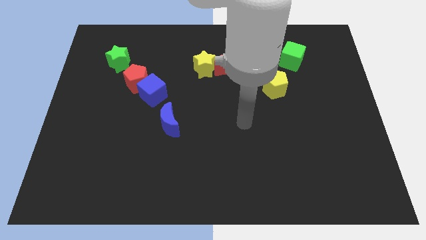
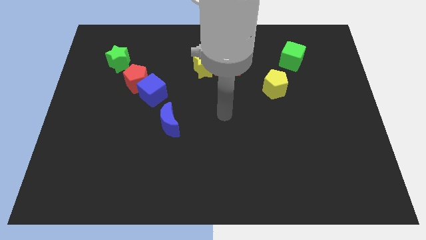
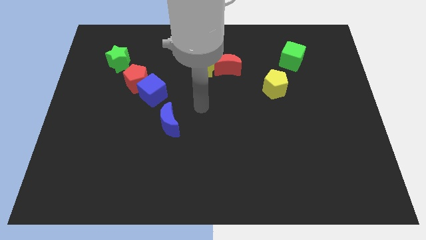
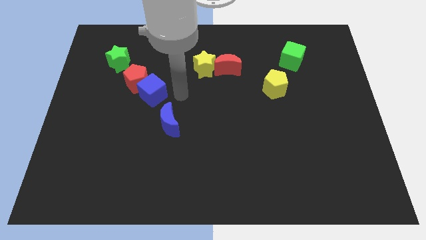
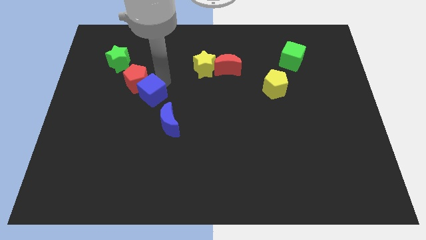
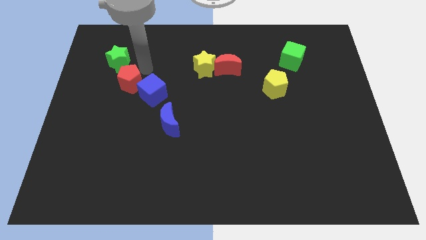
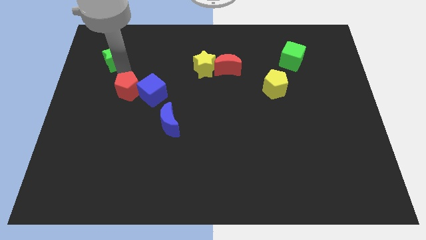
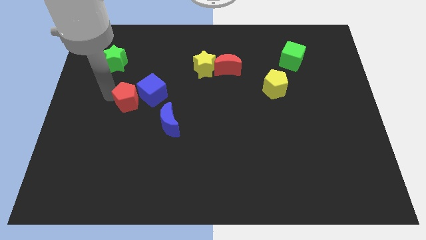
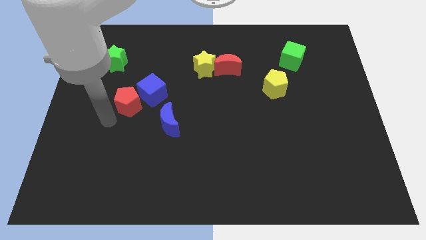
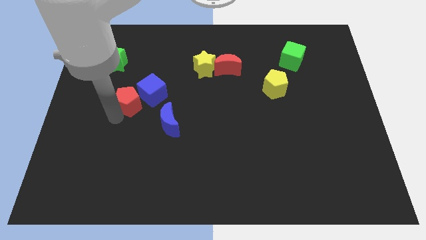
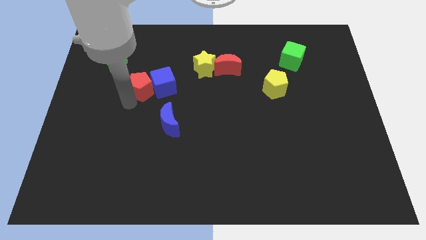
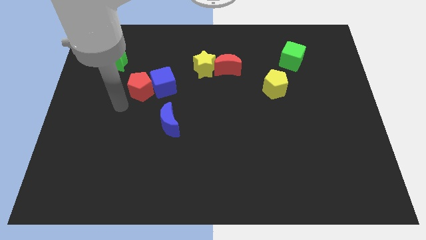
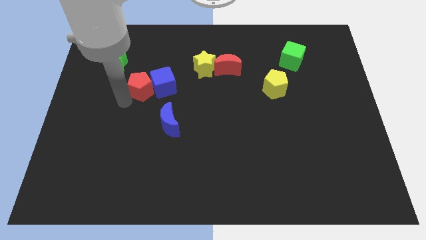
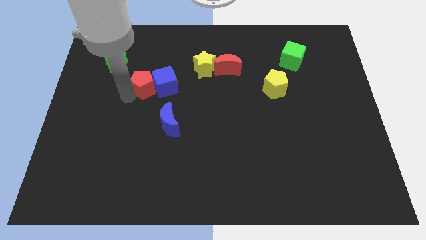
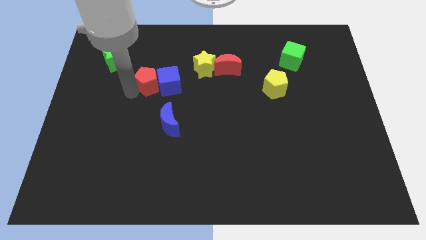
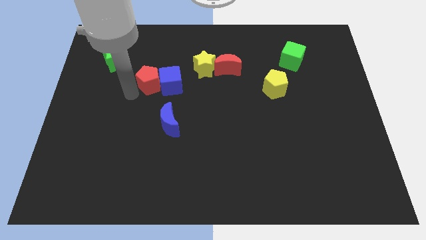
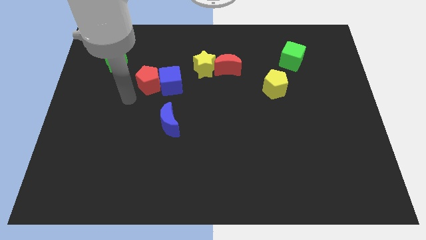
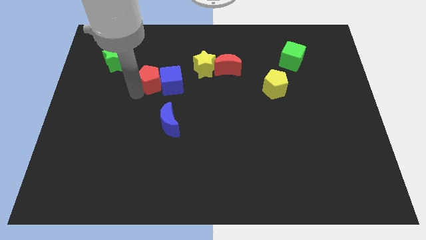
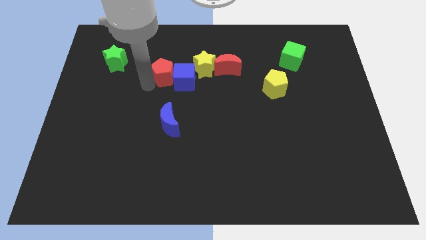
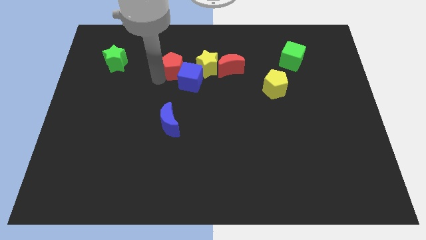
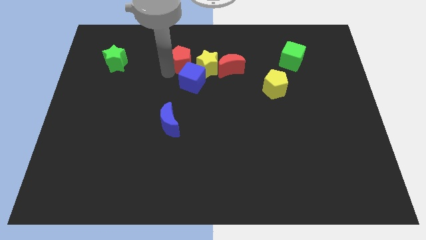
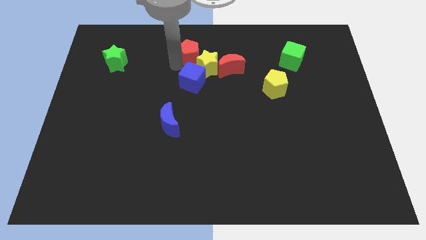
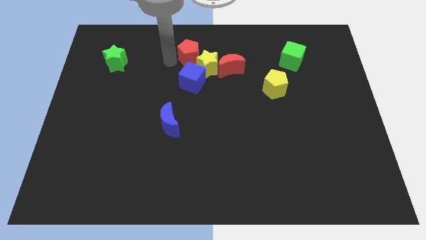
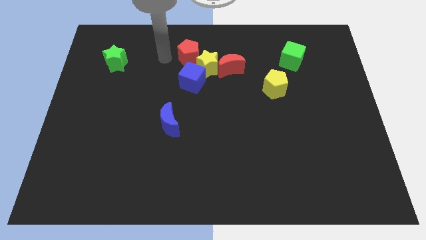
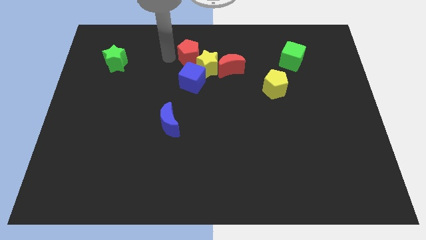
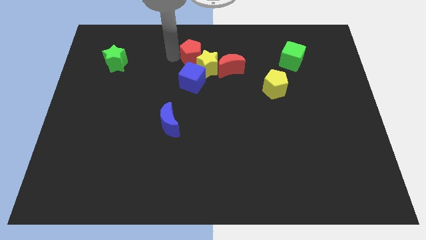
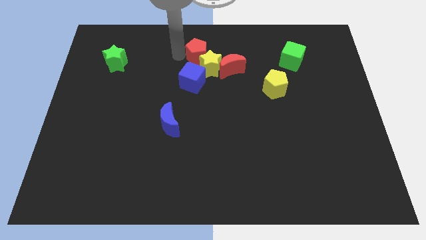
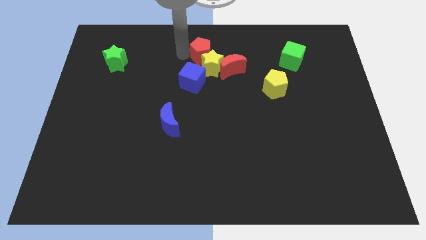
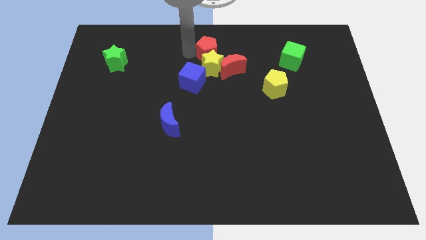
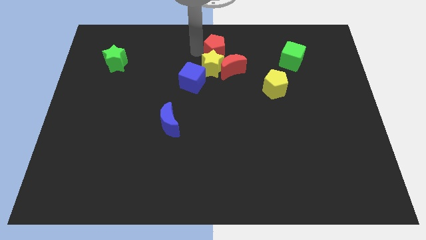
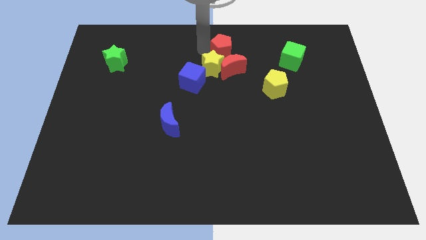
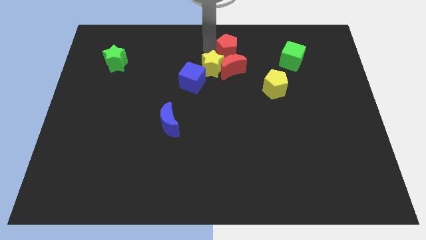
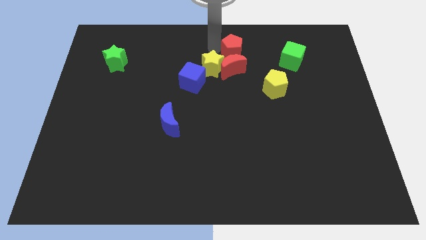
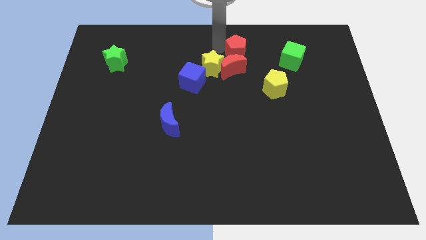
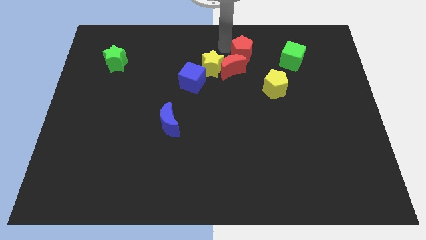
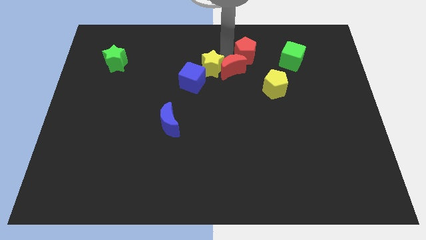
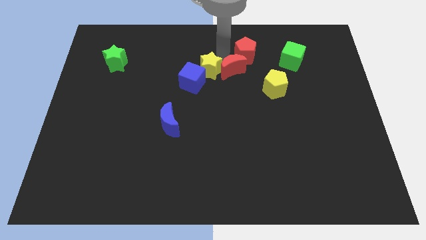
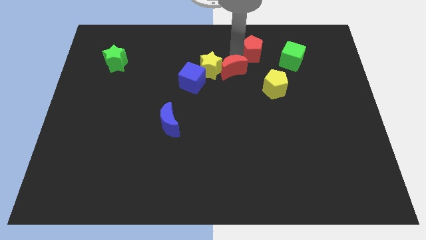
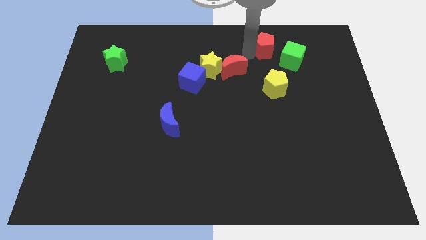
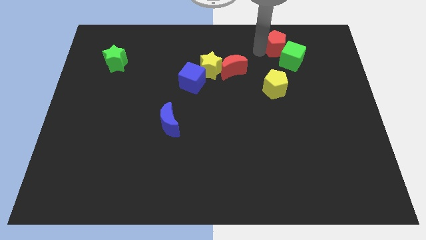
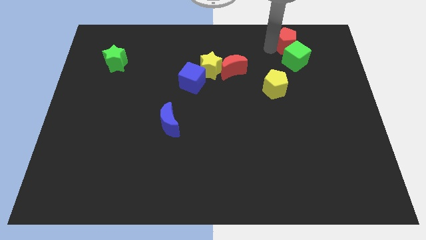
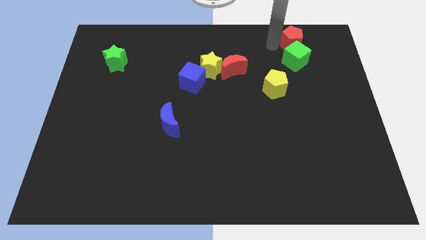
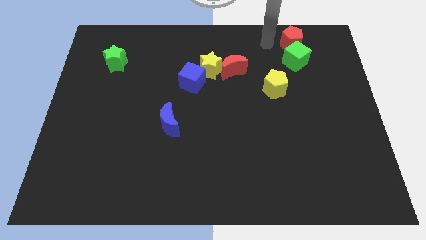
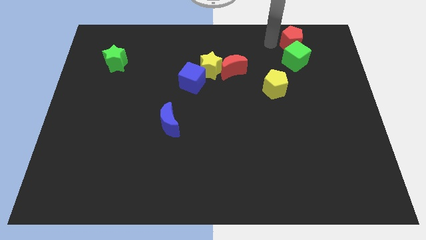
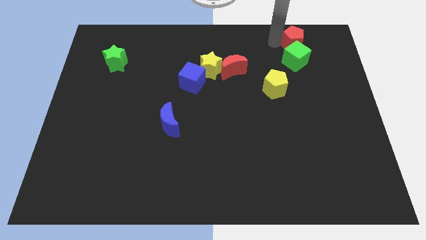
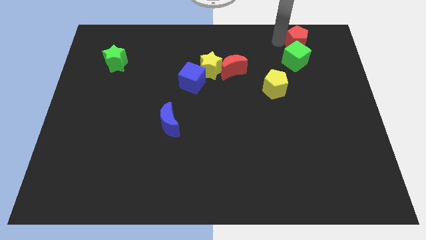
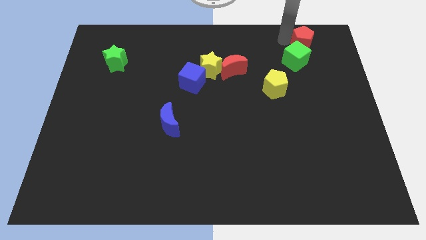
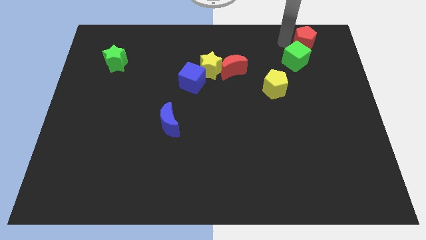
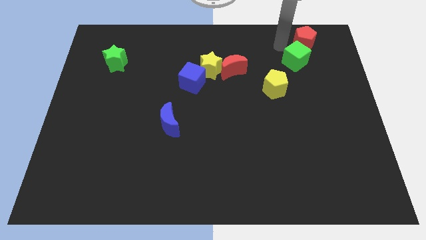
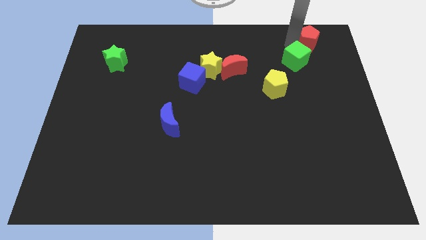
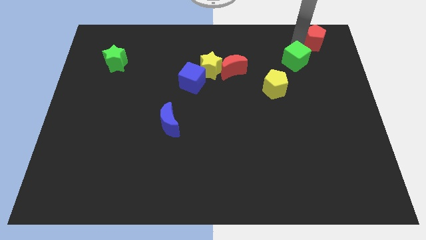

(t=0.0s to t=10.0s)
put the red pentagon to the top right

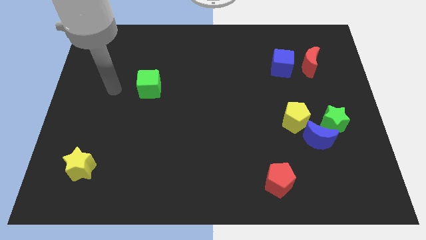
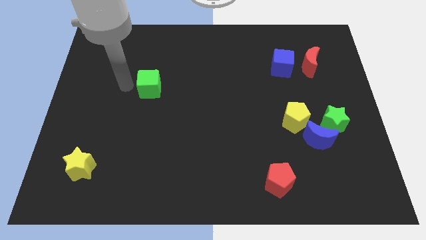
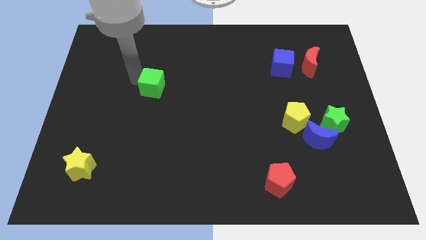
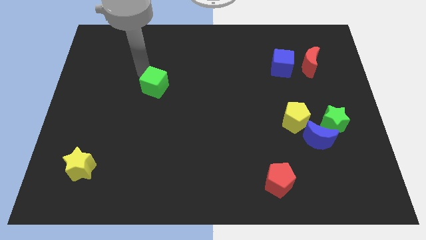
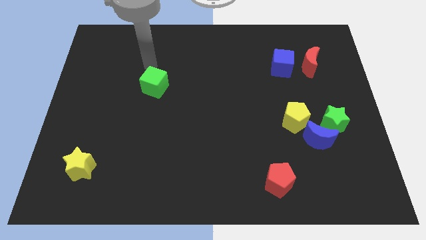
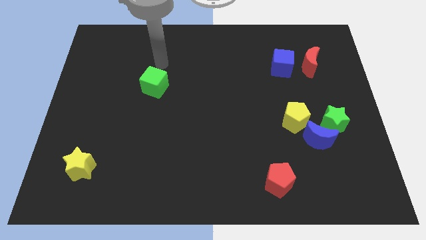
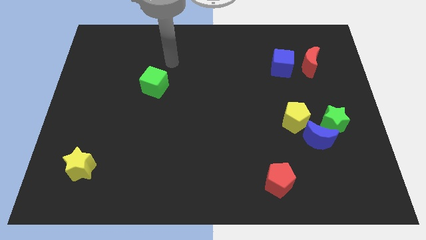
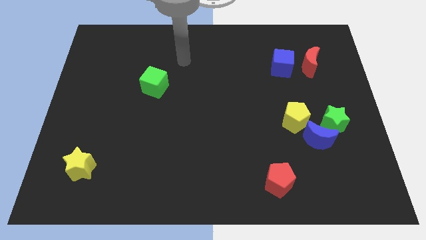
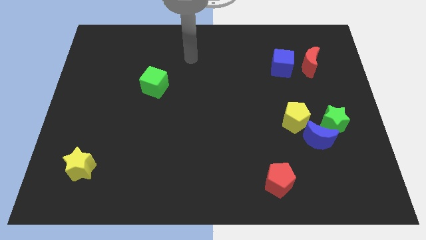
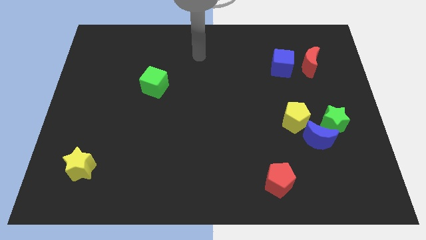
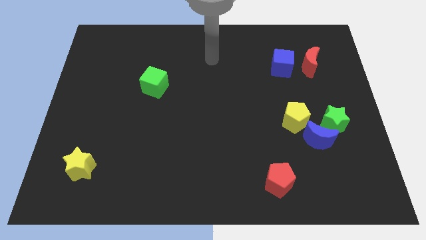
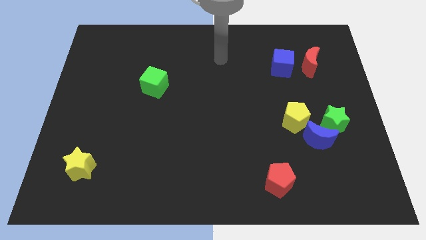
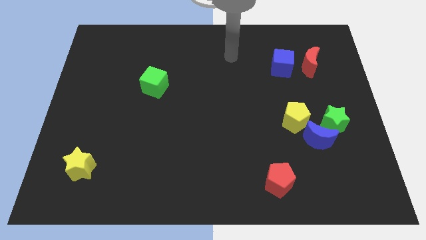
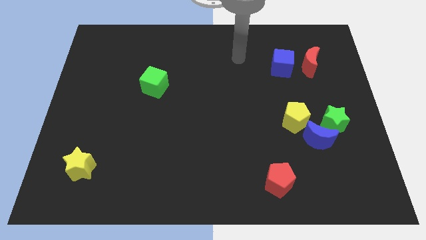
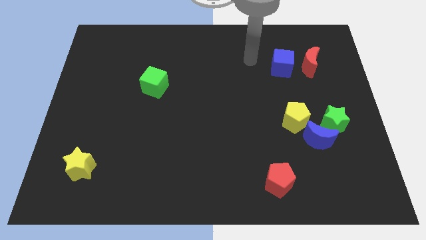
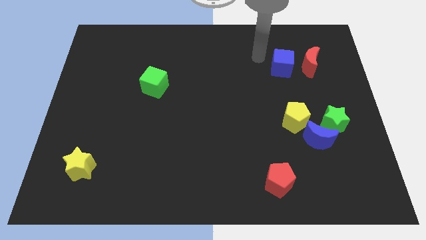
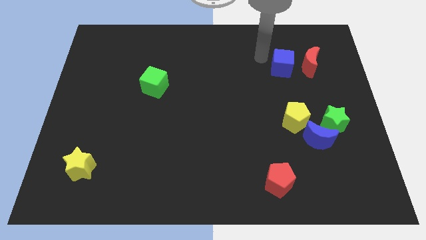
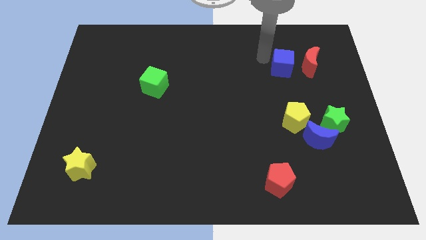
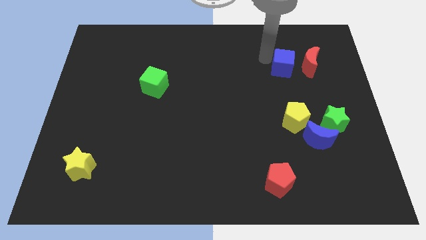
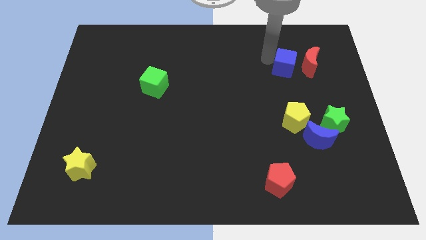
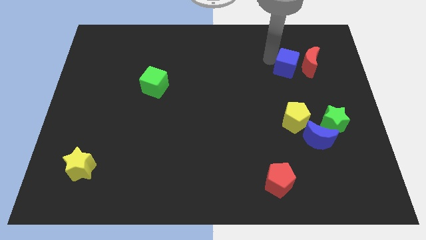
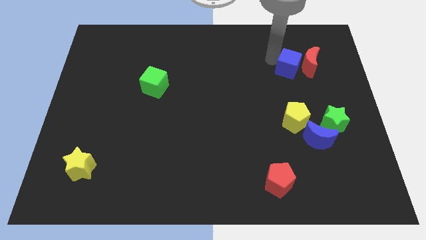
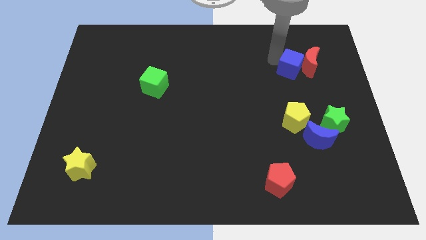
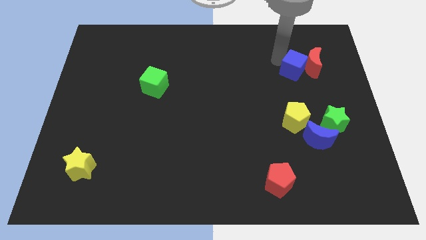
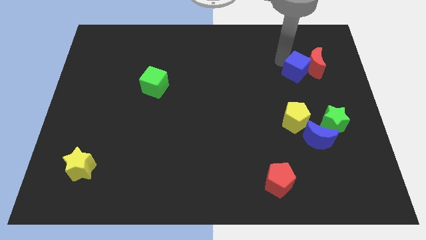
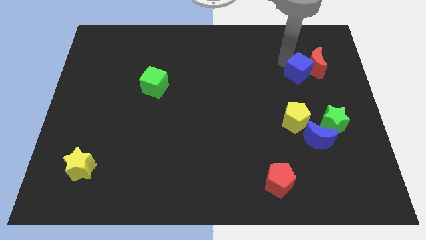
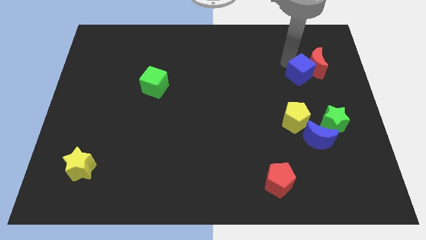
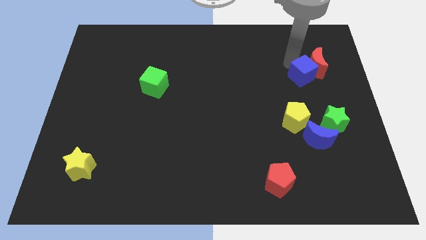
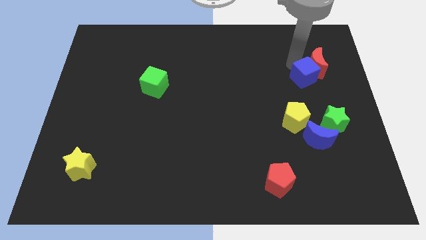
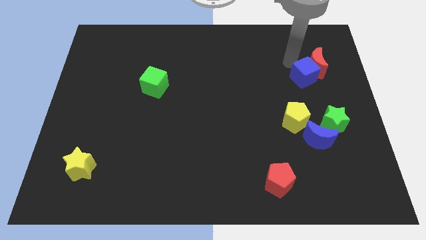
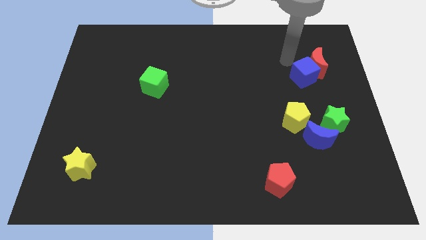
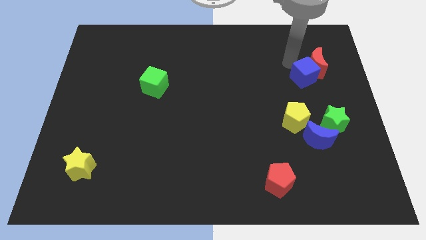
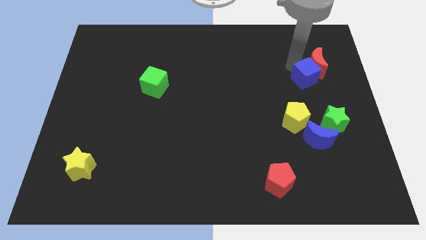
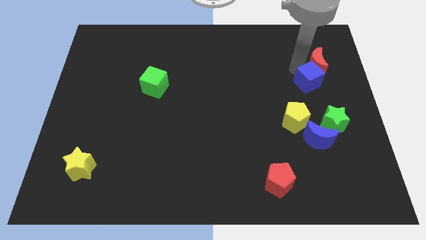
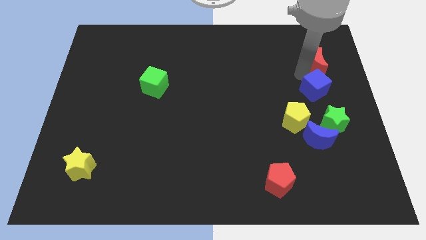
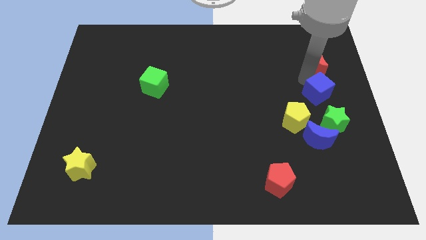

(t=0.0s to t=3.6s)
move the blue cube to the center right
